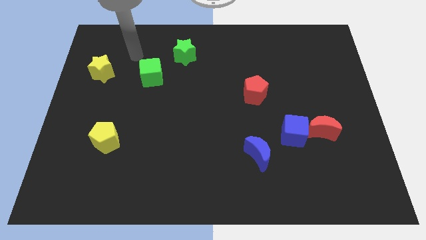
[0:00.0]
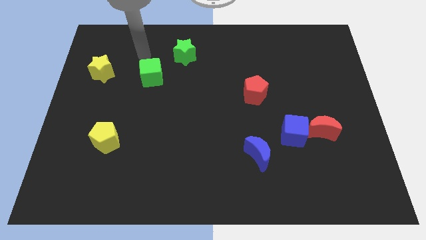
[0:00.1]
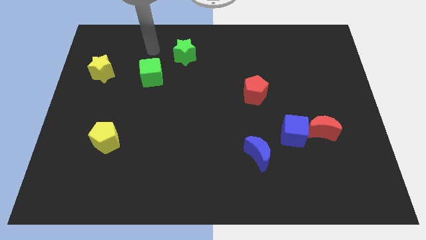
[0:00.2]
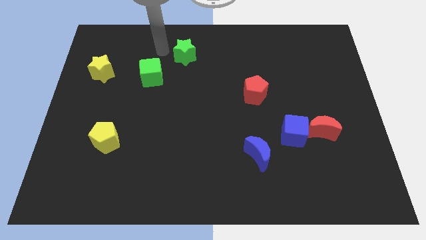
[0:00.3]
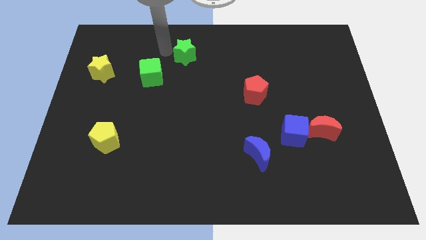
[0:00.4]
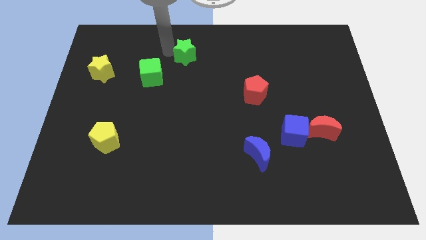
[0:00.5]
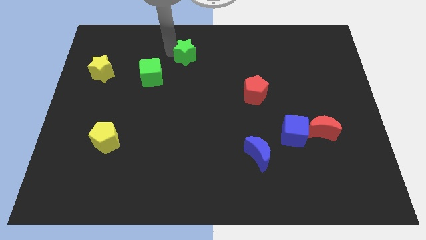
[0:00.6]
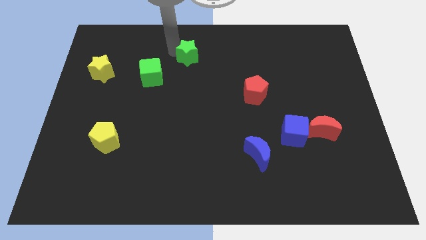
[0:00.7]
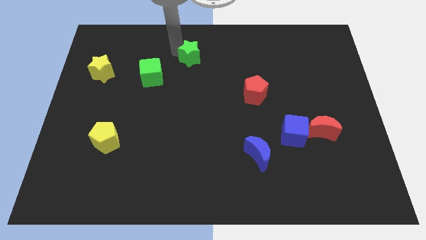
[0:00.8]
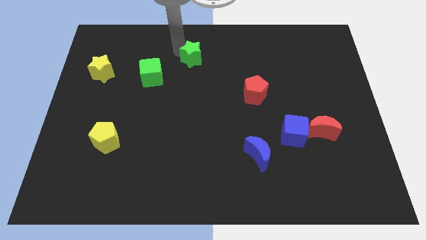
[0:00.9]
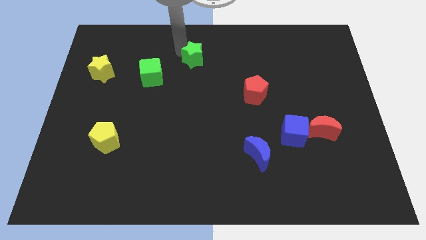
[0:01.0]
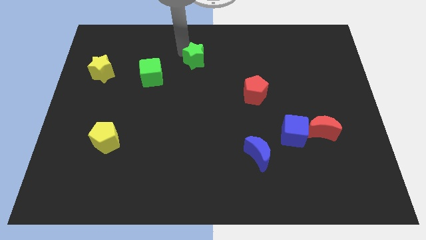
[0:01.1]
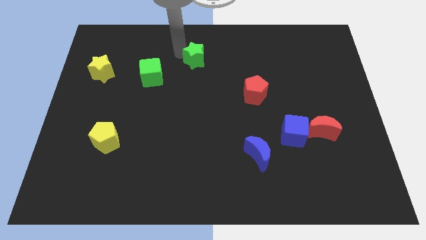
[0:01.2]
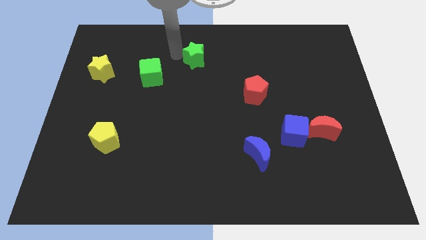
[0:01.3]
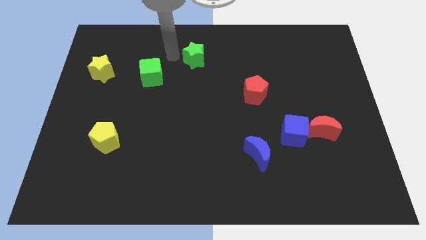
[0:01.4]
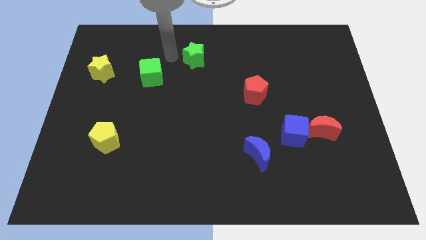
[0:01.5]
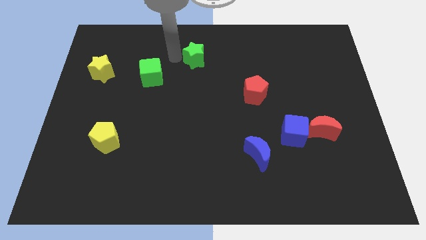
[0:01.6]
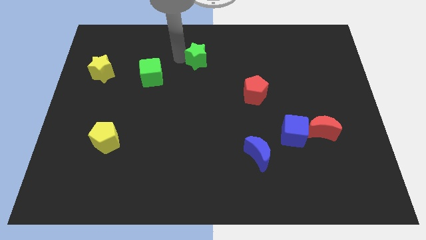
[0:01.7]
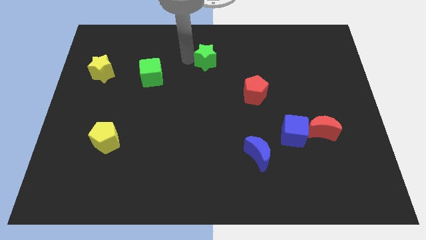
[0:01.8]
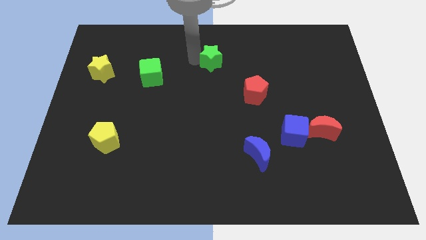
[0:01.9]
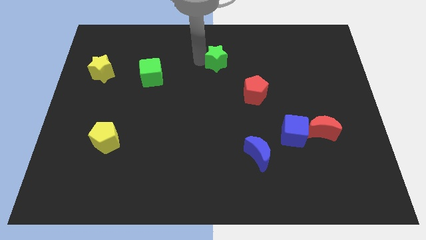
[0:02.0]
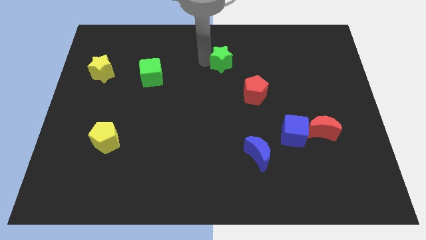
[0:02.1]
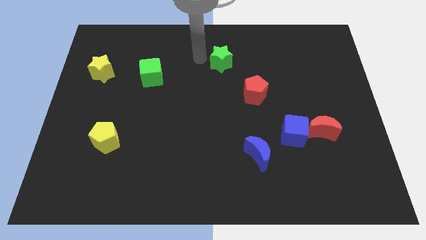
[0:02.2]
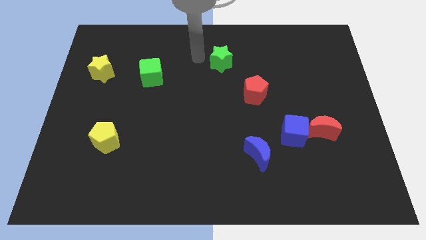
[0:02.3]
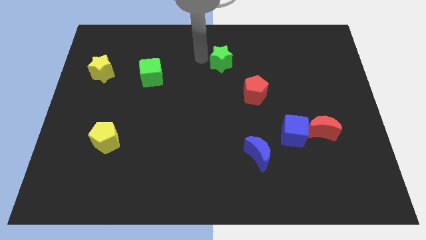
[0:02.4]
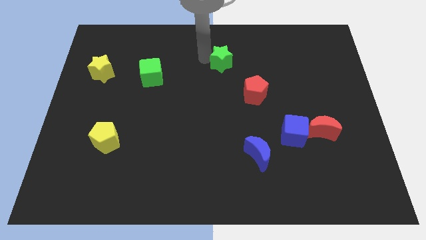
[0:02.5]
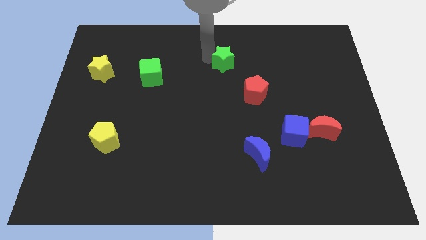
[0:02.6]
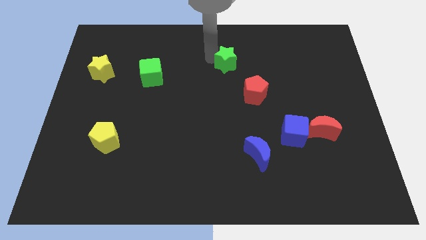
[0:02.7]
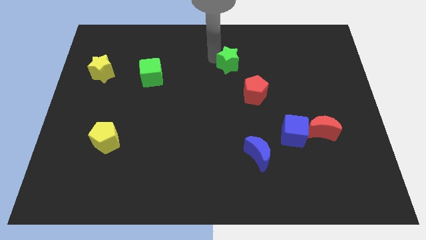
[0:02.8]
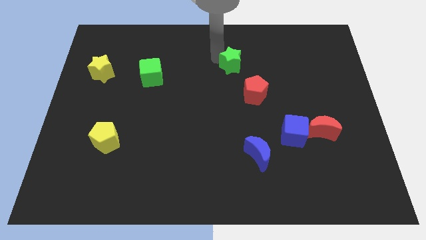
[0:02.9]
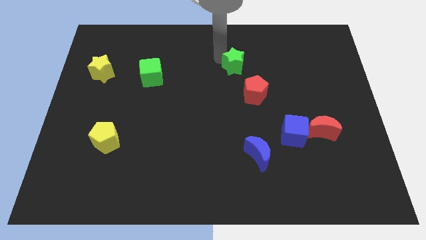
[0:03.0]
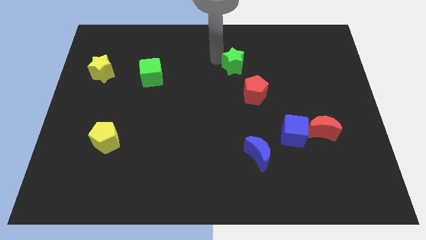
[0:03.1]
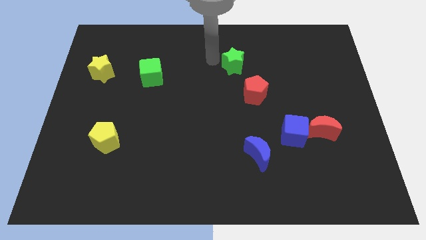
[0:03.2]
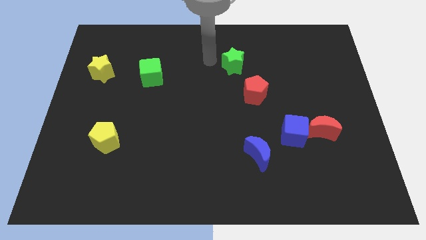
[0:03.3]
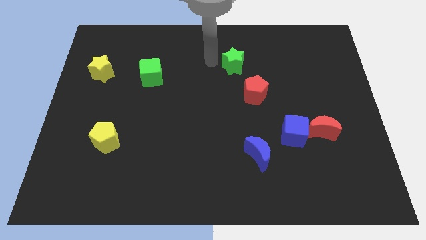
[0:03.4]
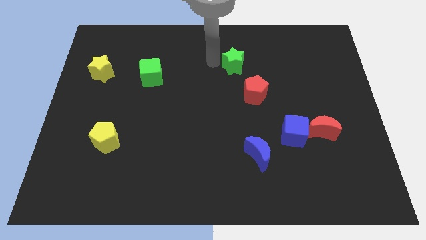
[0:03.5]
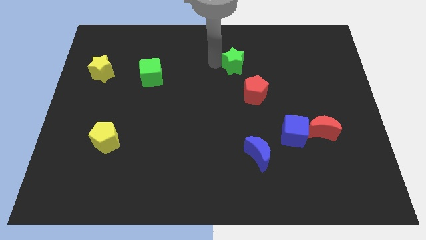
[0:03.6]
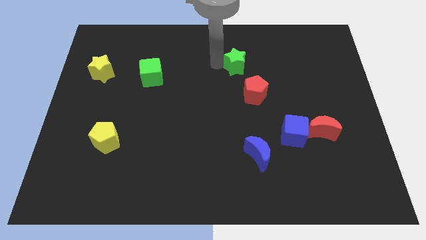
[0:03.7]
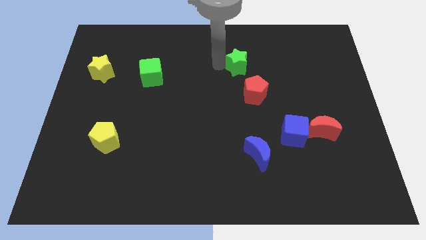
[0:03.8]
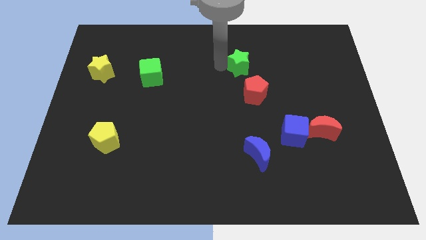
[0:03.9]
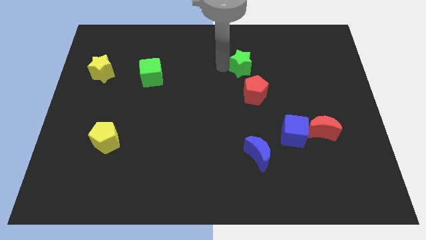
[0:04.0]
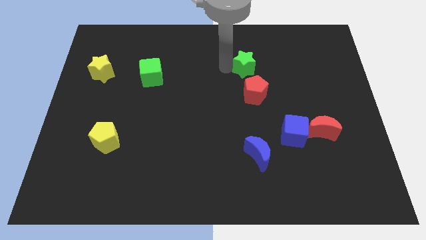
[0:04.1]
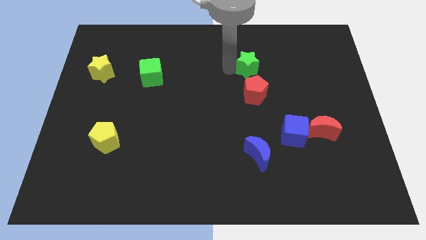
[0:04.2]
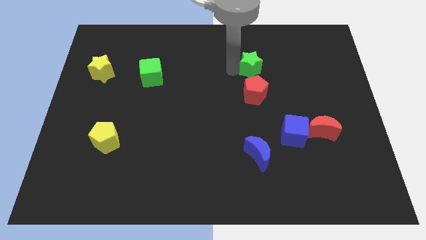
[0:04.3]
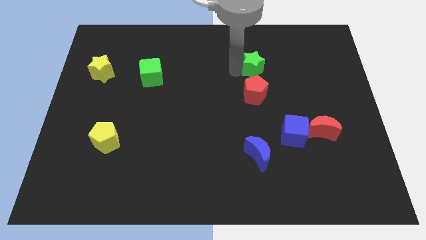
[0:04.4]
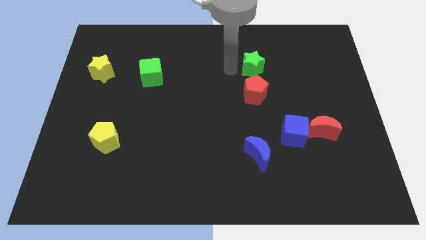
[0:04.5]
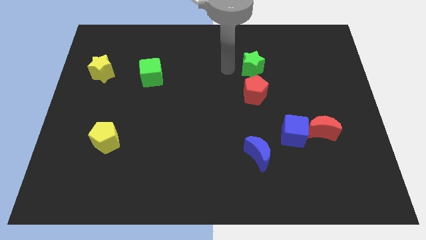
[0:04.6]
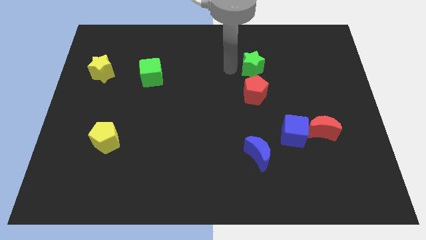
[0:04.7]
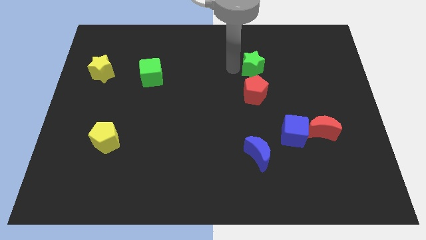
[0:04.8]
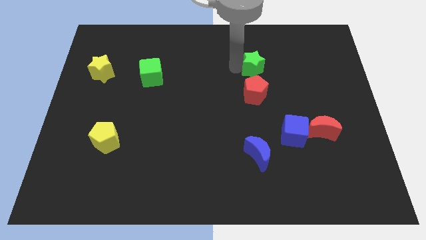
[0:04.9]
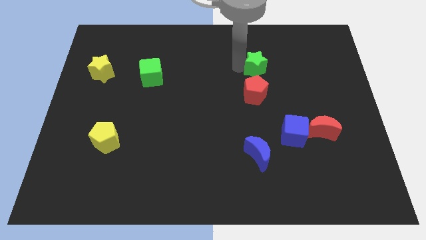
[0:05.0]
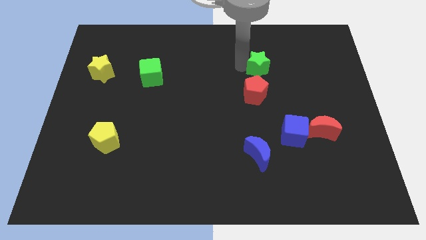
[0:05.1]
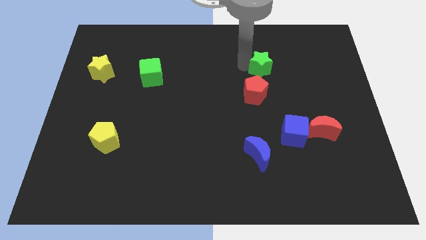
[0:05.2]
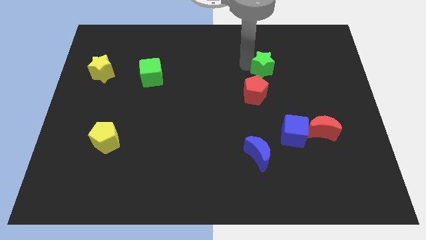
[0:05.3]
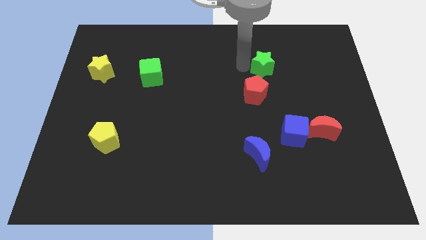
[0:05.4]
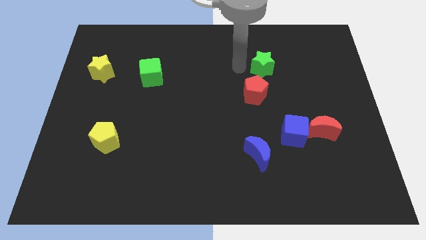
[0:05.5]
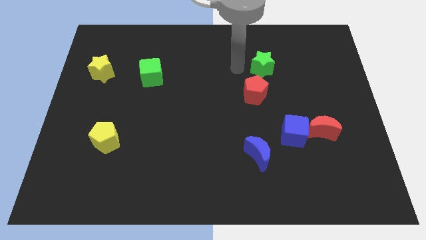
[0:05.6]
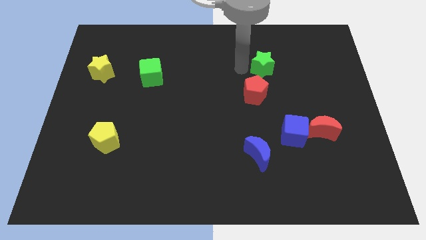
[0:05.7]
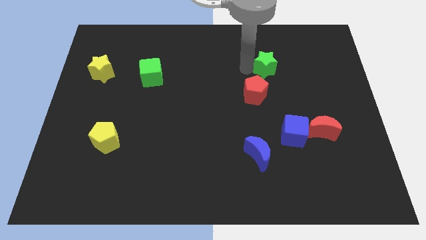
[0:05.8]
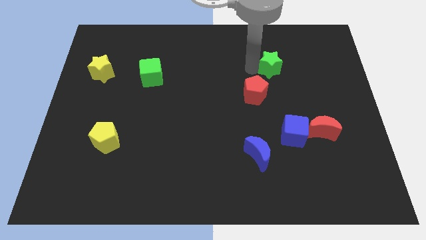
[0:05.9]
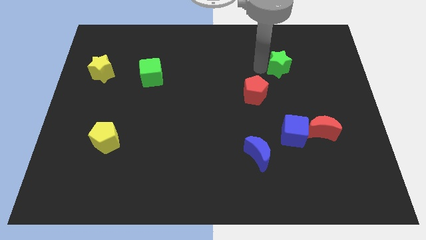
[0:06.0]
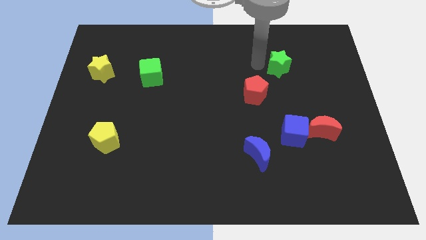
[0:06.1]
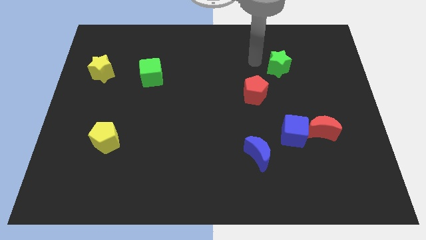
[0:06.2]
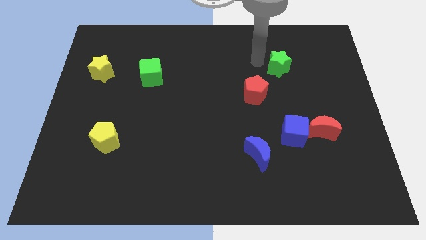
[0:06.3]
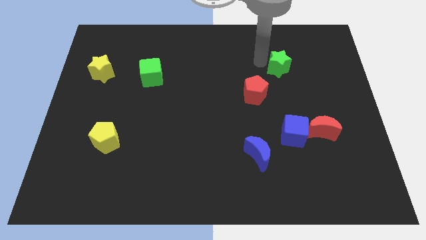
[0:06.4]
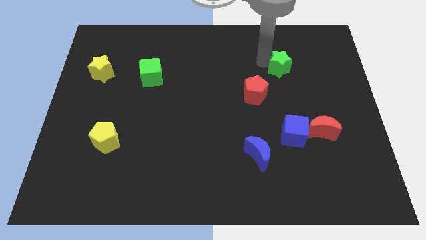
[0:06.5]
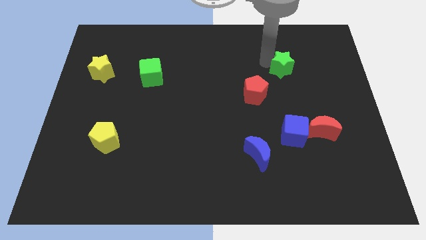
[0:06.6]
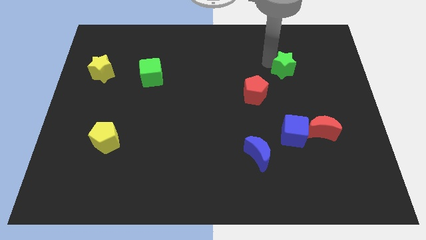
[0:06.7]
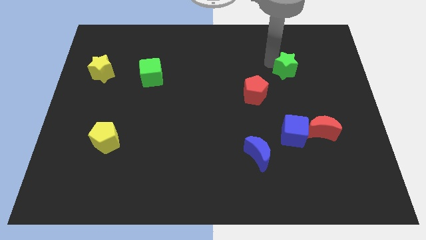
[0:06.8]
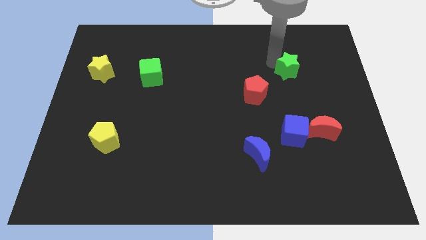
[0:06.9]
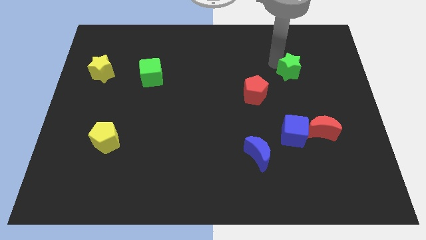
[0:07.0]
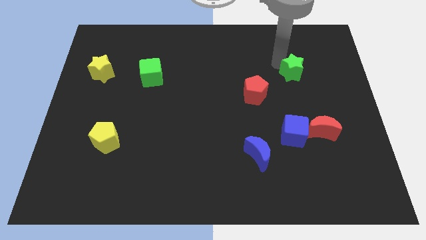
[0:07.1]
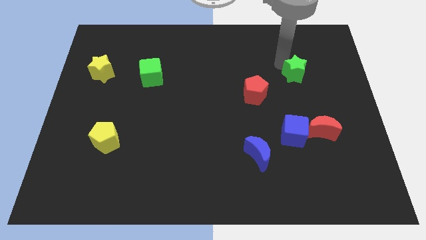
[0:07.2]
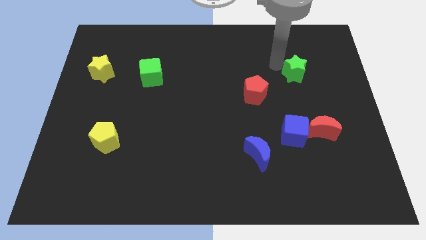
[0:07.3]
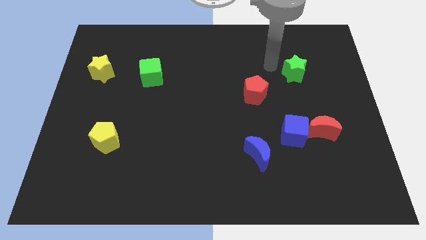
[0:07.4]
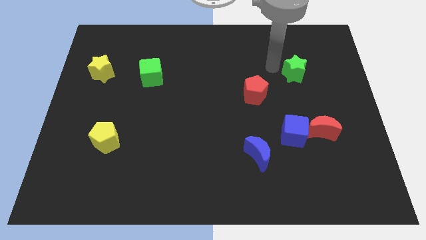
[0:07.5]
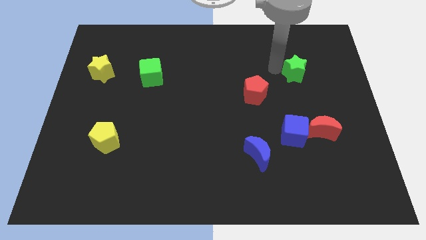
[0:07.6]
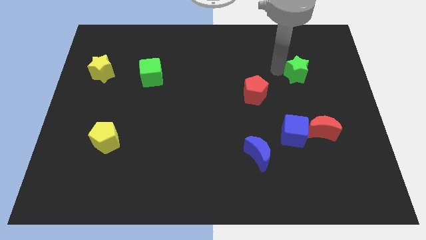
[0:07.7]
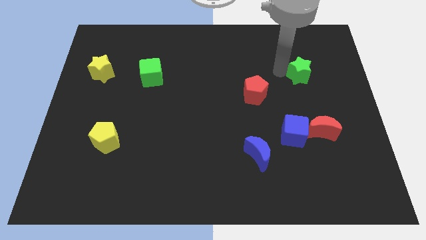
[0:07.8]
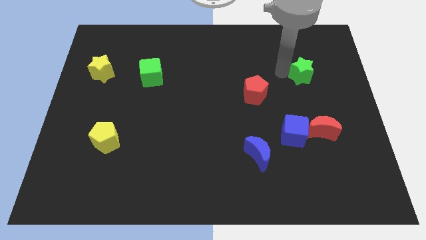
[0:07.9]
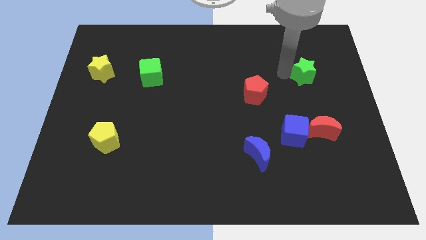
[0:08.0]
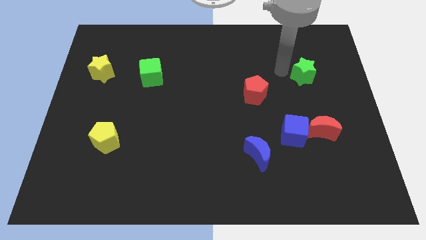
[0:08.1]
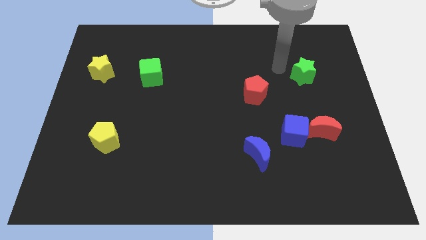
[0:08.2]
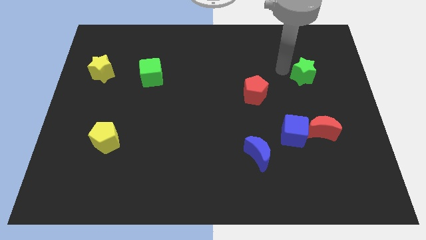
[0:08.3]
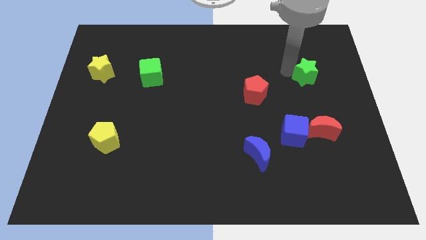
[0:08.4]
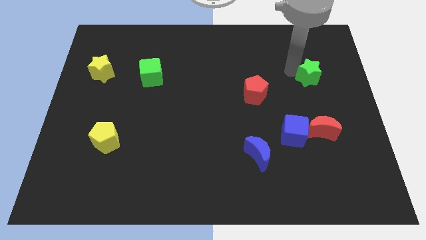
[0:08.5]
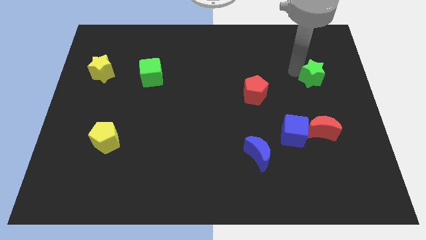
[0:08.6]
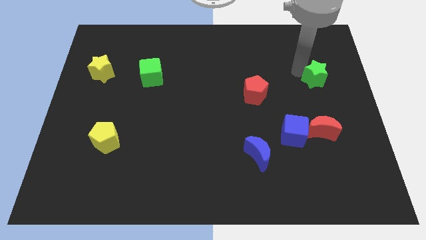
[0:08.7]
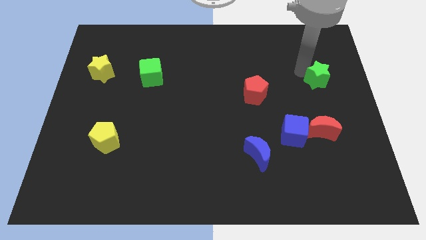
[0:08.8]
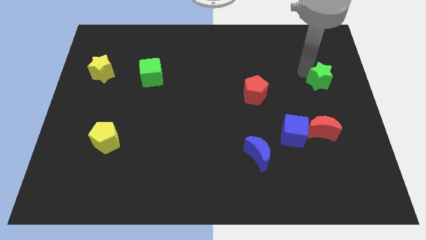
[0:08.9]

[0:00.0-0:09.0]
put the green star to the right side
